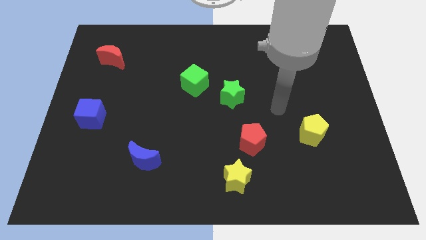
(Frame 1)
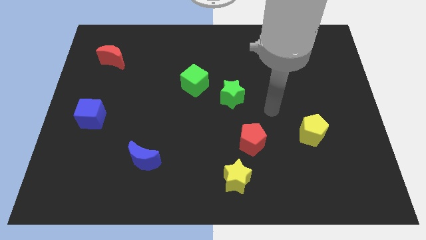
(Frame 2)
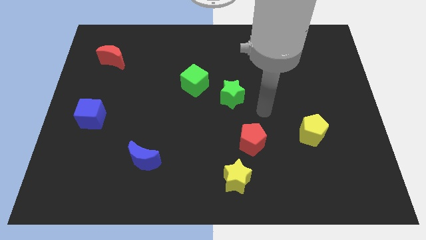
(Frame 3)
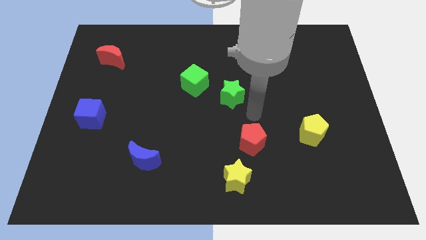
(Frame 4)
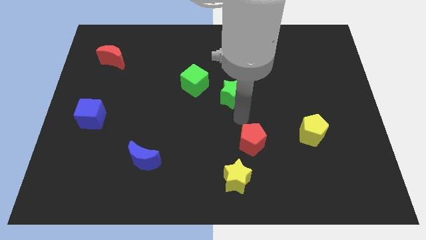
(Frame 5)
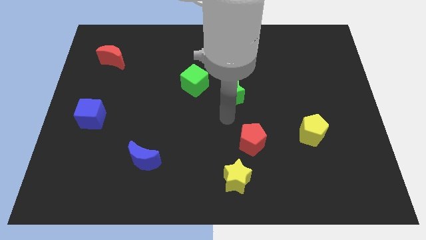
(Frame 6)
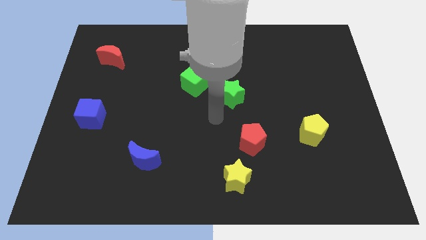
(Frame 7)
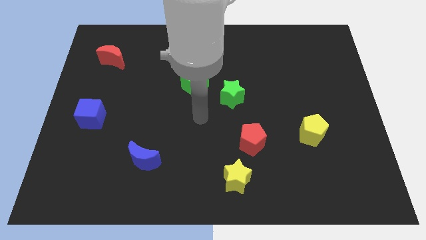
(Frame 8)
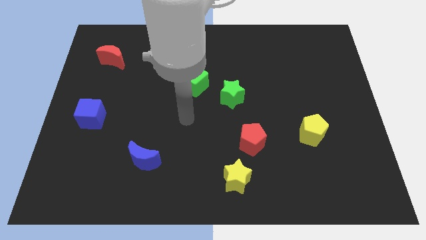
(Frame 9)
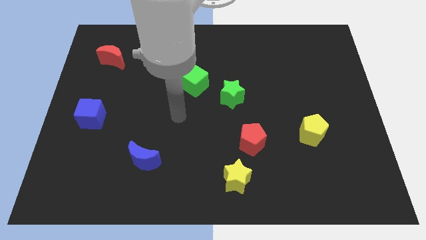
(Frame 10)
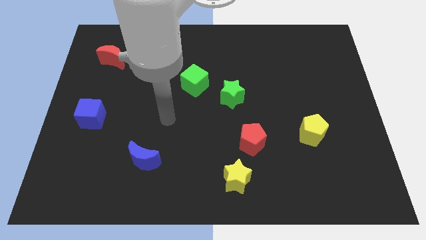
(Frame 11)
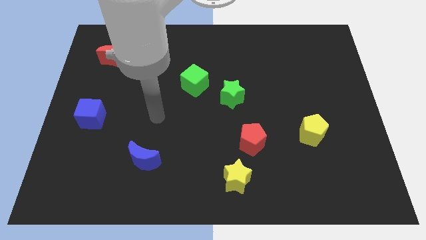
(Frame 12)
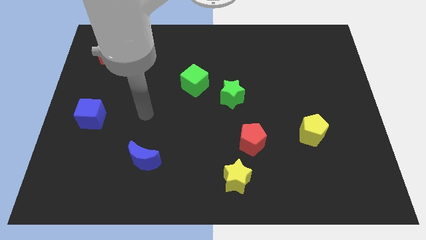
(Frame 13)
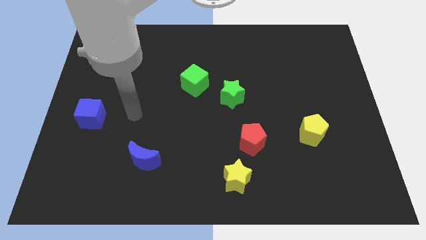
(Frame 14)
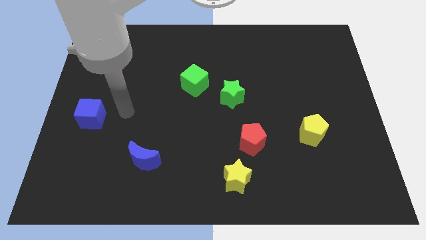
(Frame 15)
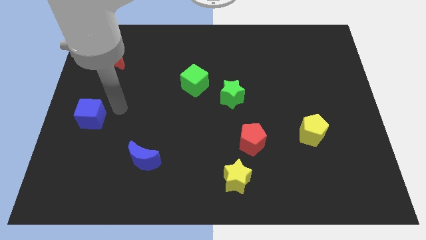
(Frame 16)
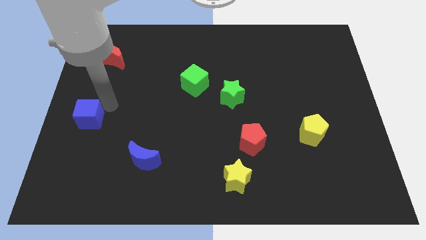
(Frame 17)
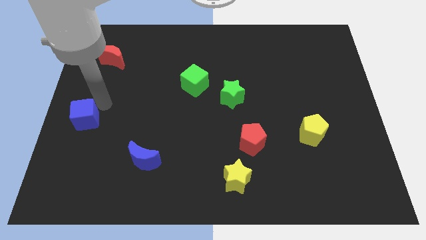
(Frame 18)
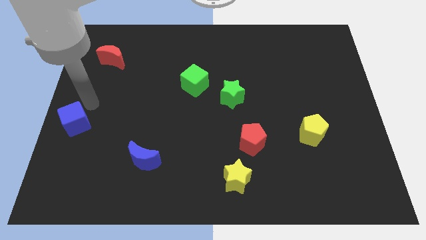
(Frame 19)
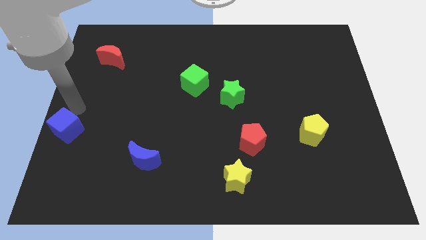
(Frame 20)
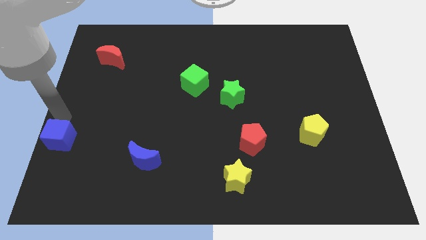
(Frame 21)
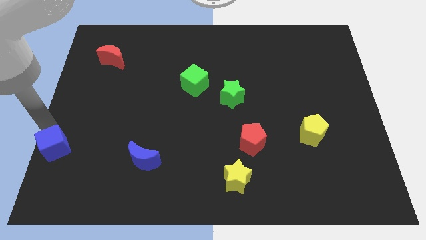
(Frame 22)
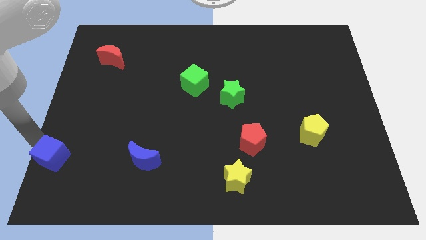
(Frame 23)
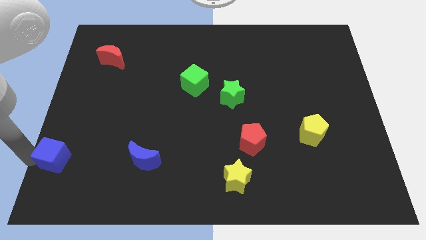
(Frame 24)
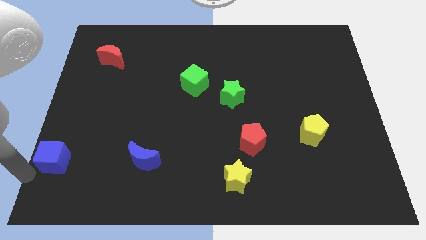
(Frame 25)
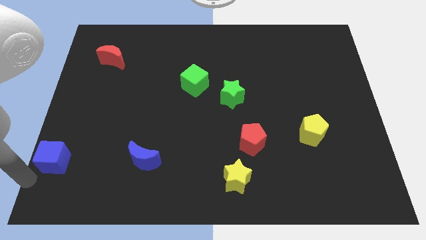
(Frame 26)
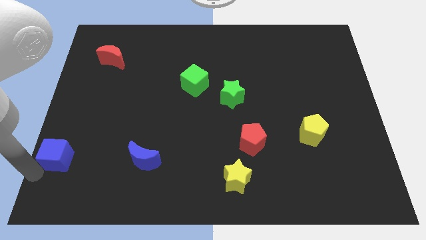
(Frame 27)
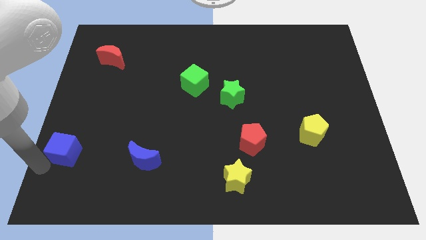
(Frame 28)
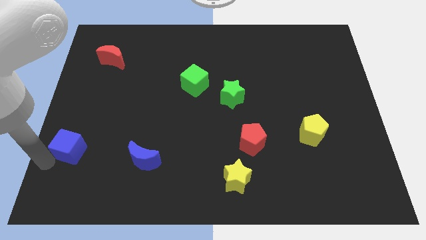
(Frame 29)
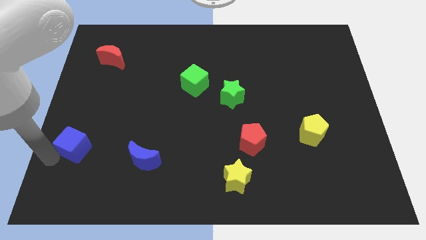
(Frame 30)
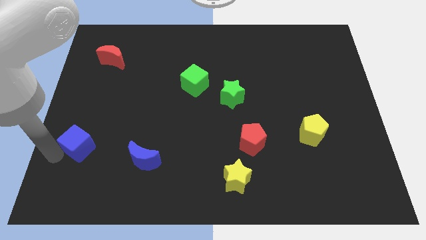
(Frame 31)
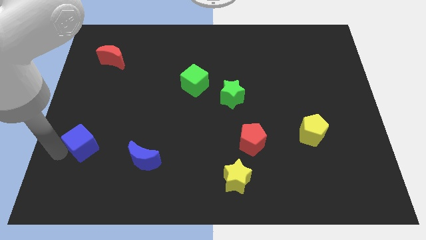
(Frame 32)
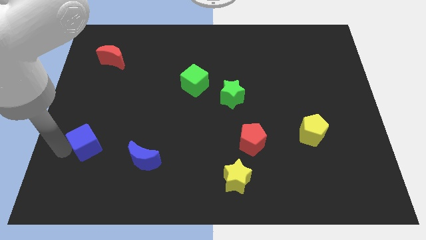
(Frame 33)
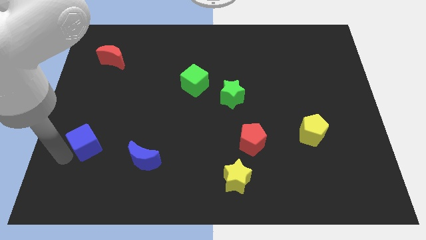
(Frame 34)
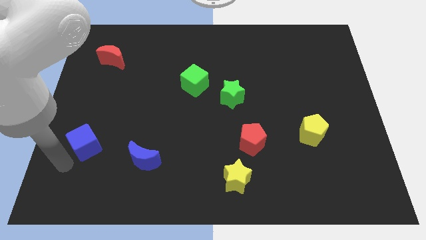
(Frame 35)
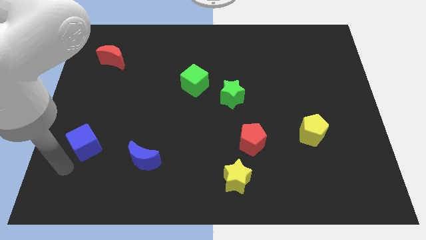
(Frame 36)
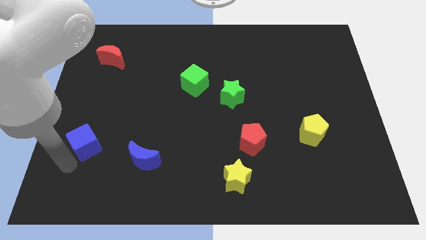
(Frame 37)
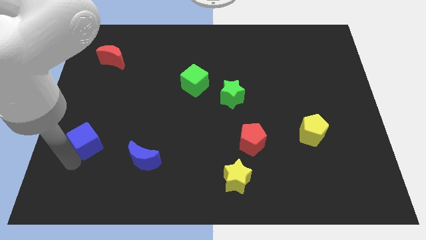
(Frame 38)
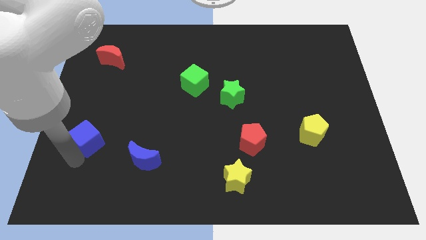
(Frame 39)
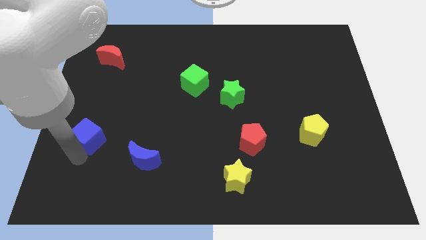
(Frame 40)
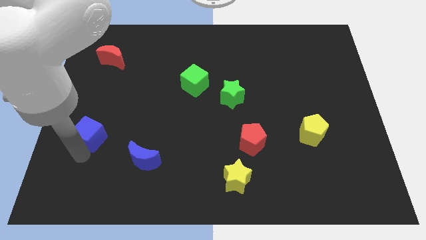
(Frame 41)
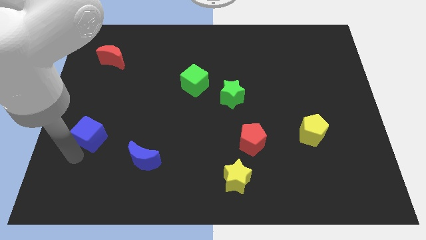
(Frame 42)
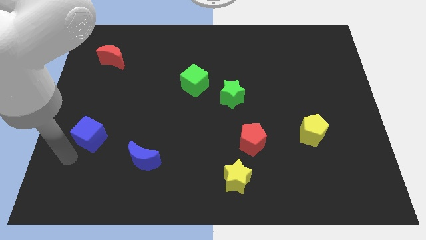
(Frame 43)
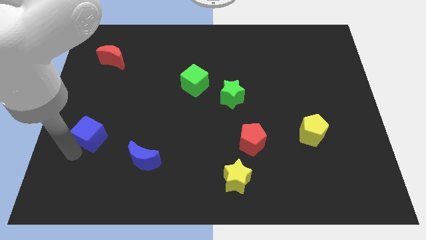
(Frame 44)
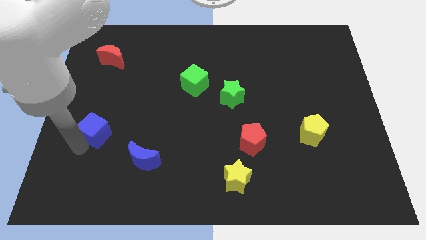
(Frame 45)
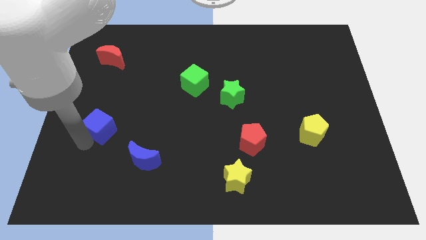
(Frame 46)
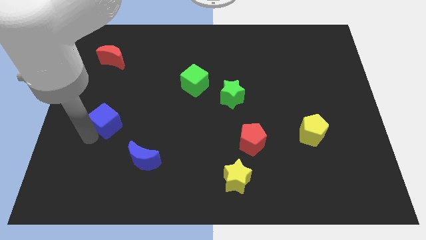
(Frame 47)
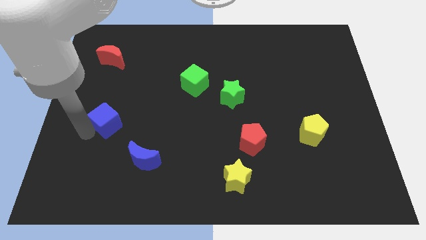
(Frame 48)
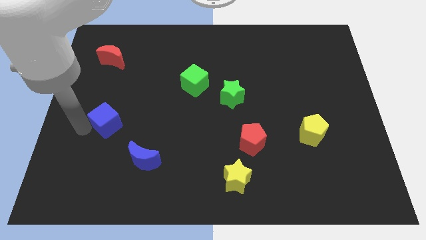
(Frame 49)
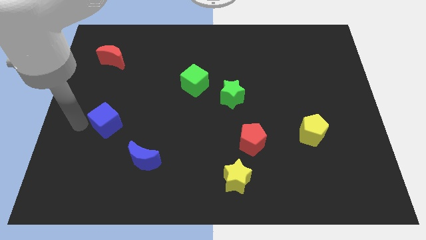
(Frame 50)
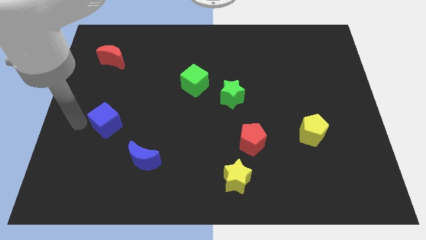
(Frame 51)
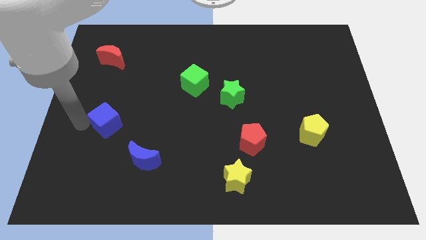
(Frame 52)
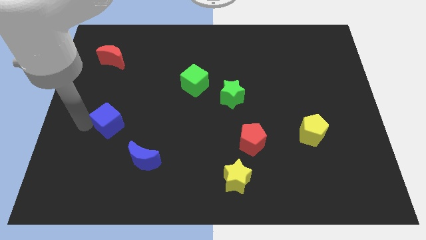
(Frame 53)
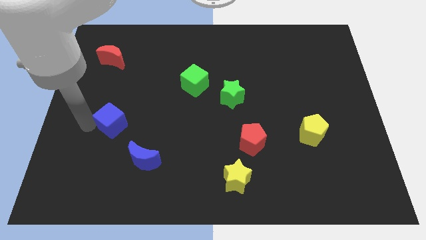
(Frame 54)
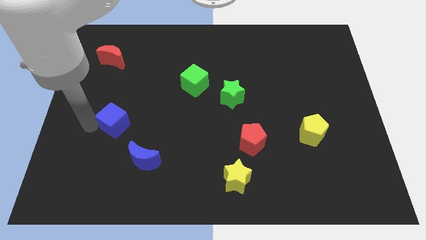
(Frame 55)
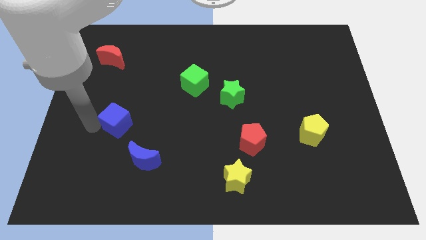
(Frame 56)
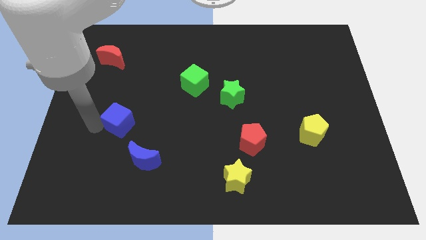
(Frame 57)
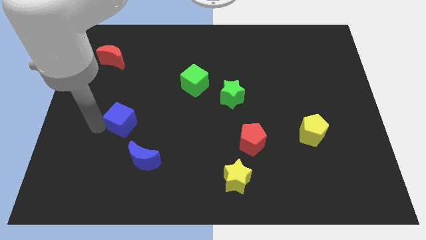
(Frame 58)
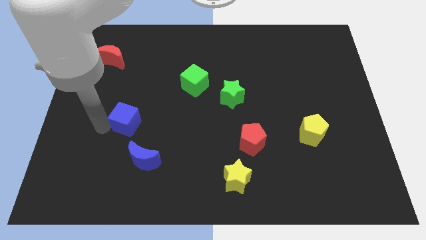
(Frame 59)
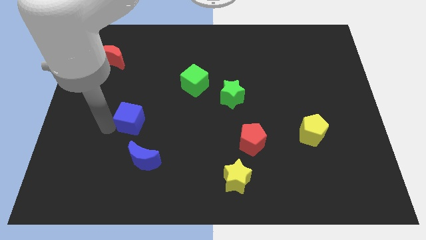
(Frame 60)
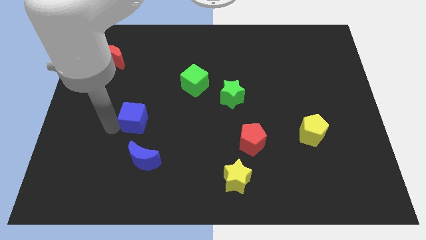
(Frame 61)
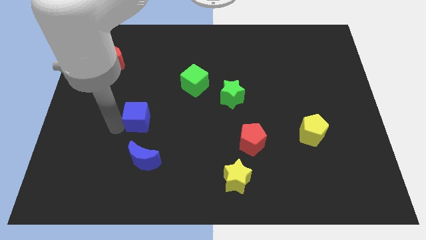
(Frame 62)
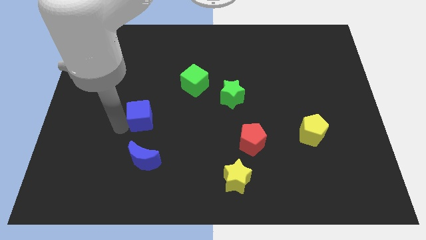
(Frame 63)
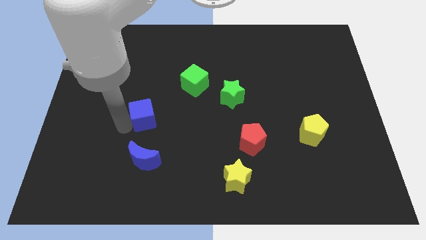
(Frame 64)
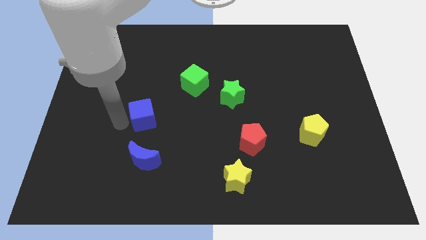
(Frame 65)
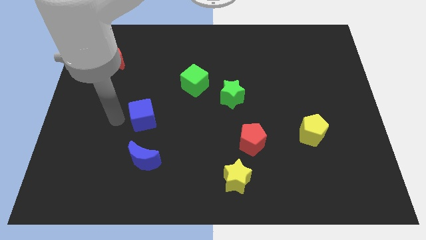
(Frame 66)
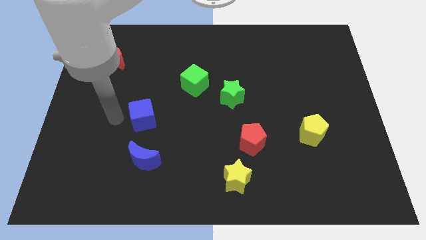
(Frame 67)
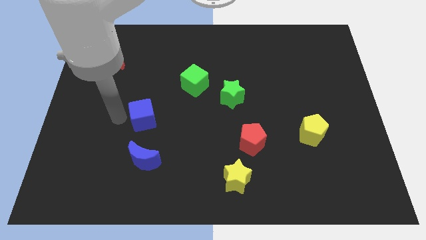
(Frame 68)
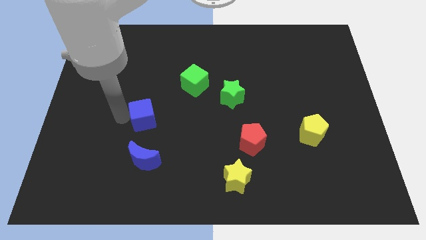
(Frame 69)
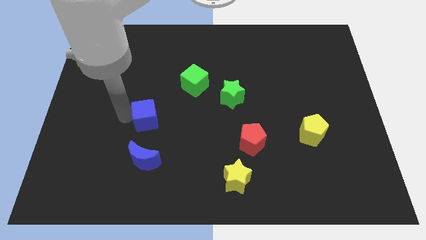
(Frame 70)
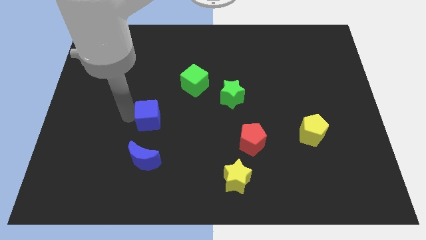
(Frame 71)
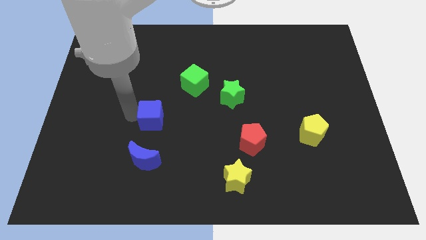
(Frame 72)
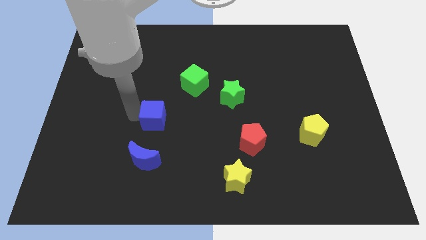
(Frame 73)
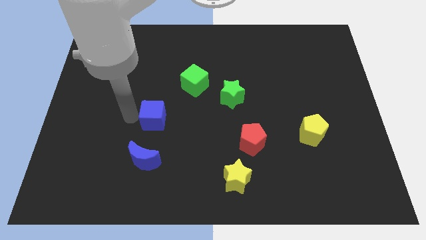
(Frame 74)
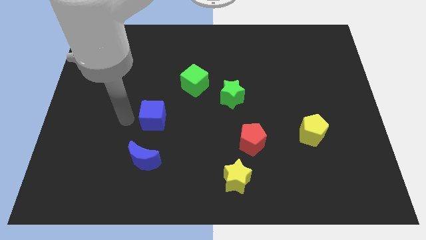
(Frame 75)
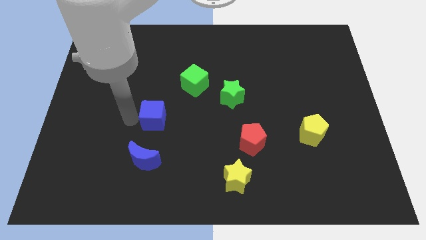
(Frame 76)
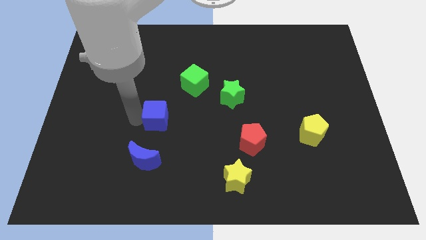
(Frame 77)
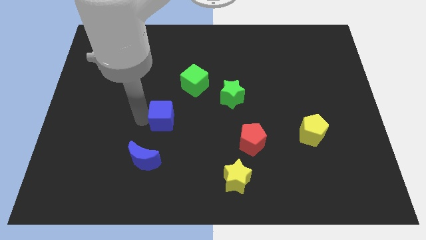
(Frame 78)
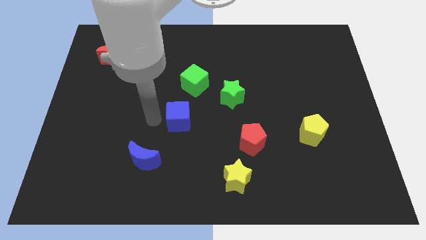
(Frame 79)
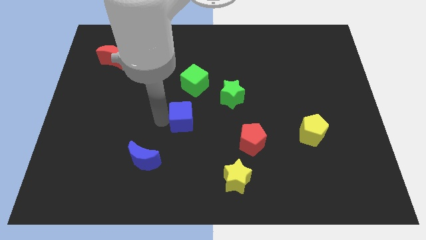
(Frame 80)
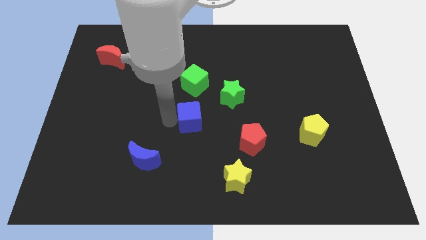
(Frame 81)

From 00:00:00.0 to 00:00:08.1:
put the blue cube to the bottom left of the green star
